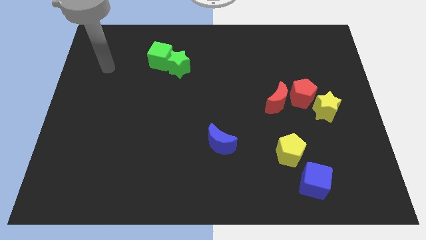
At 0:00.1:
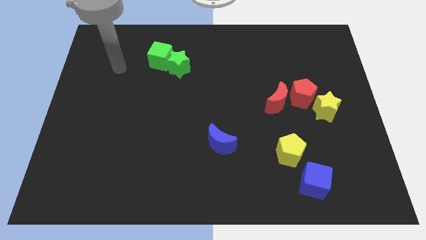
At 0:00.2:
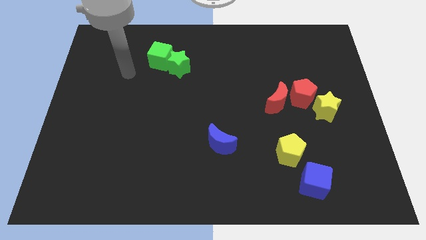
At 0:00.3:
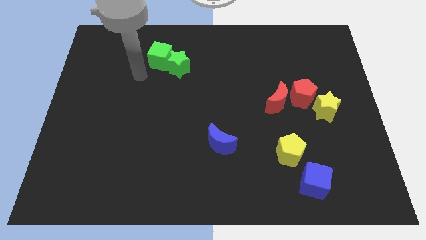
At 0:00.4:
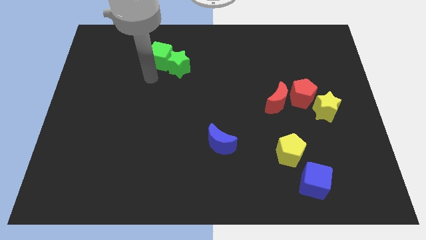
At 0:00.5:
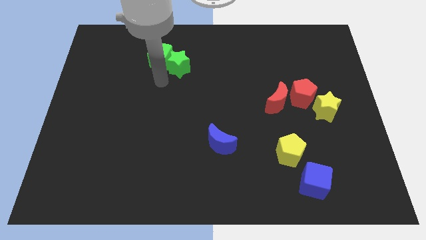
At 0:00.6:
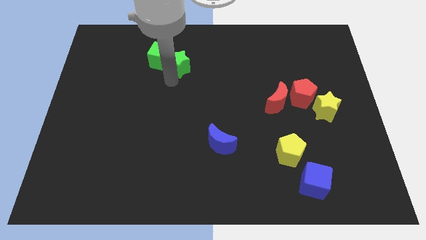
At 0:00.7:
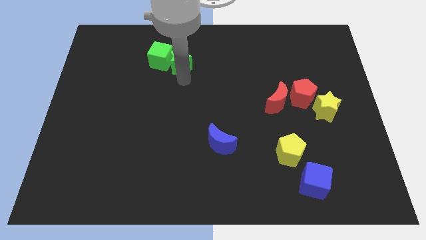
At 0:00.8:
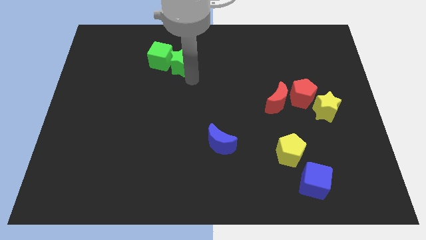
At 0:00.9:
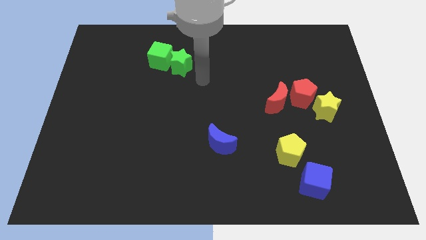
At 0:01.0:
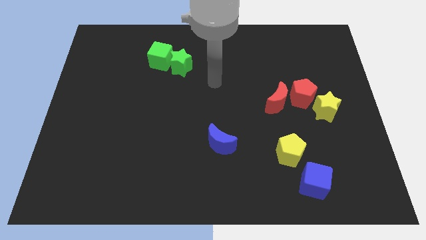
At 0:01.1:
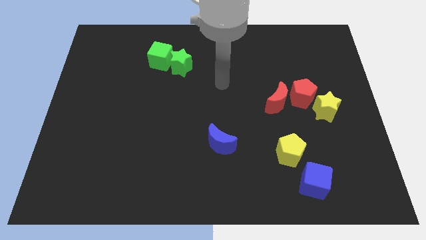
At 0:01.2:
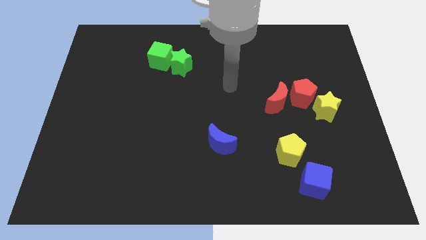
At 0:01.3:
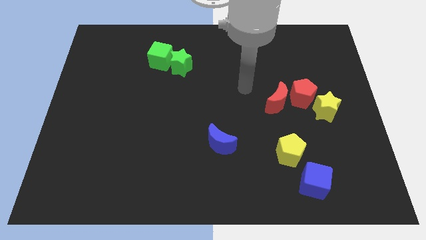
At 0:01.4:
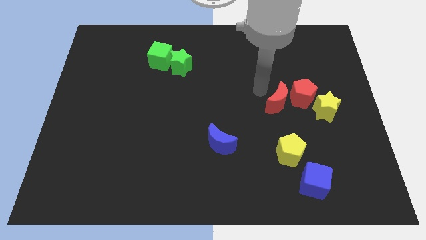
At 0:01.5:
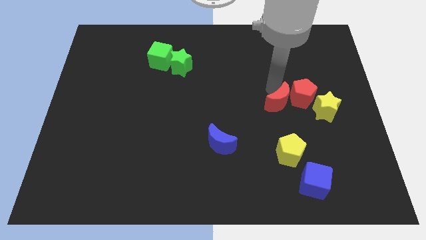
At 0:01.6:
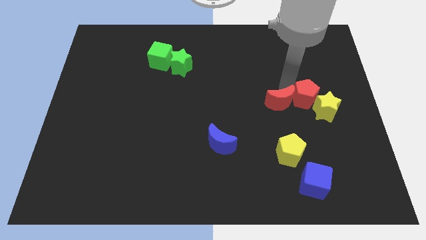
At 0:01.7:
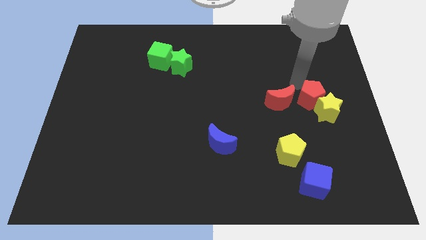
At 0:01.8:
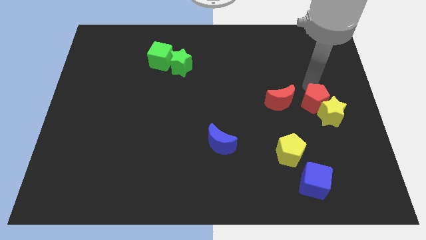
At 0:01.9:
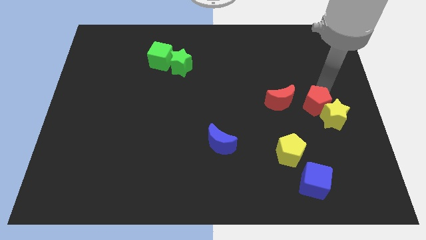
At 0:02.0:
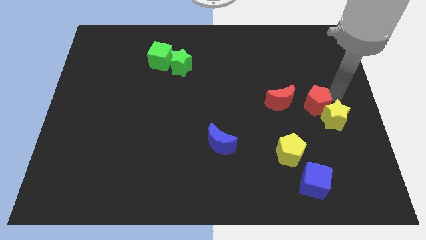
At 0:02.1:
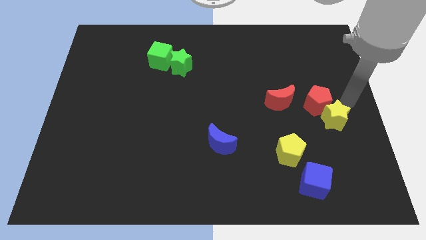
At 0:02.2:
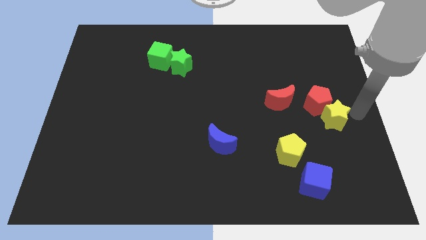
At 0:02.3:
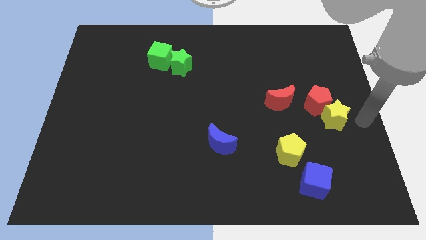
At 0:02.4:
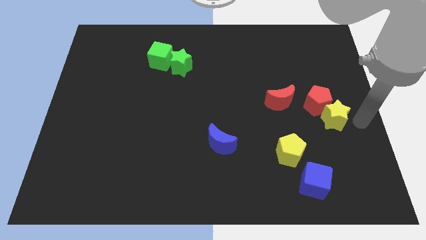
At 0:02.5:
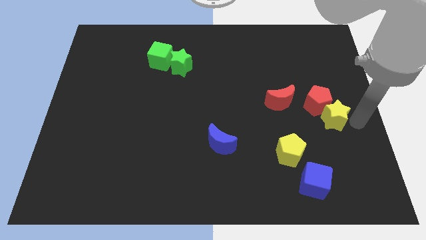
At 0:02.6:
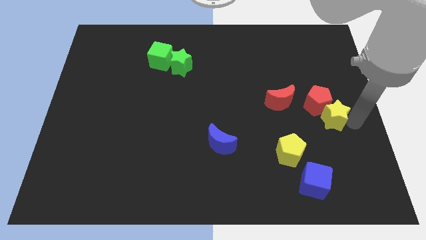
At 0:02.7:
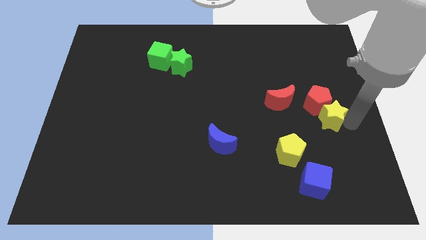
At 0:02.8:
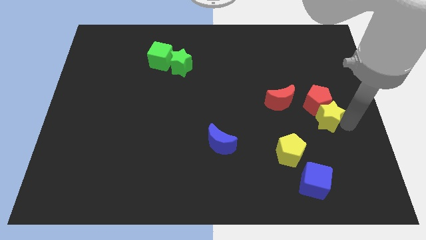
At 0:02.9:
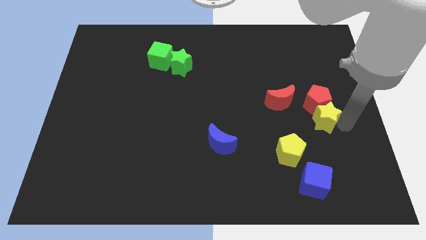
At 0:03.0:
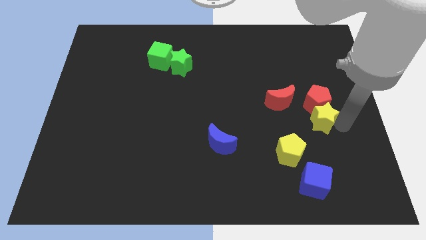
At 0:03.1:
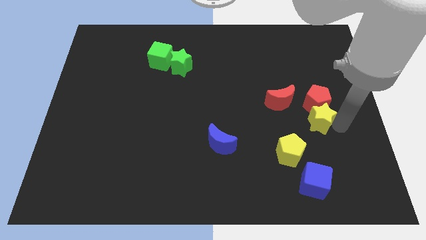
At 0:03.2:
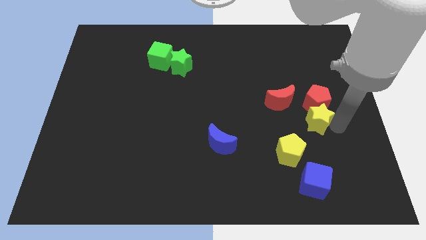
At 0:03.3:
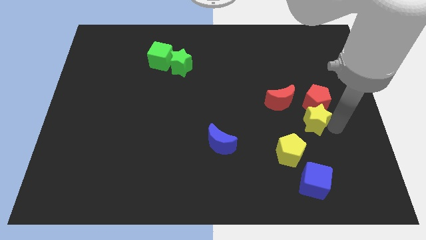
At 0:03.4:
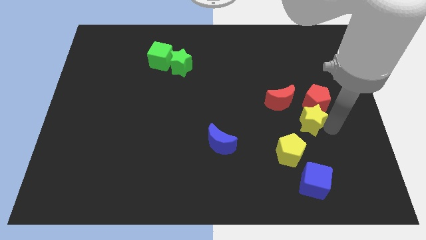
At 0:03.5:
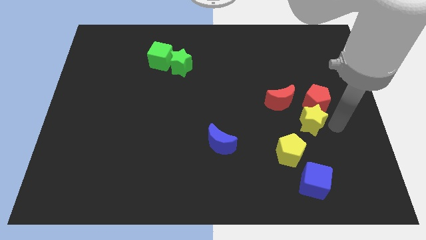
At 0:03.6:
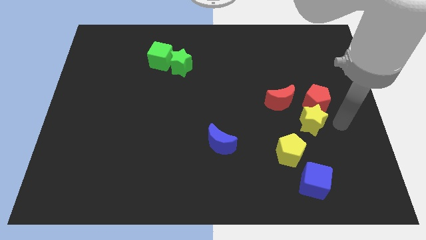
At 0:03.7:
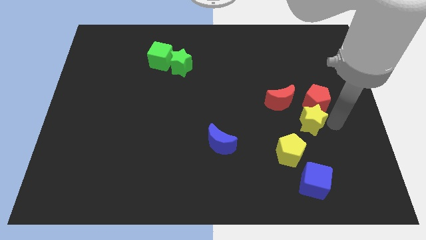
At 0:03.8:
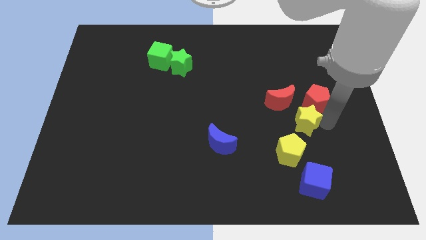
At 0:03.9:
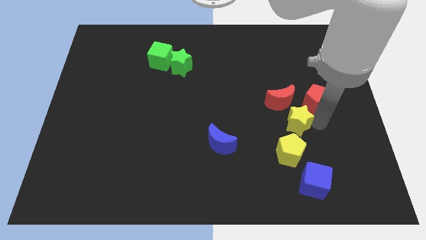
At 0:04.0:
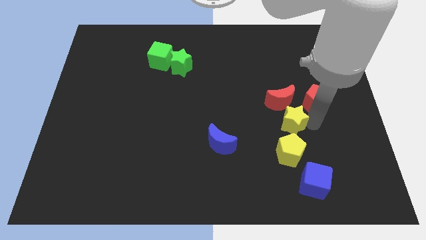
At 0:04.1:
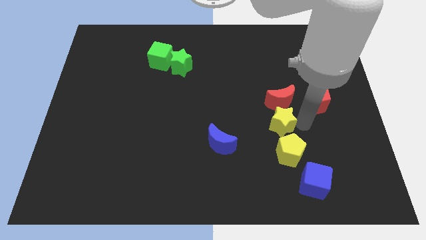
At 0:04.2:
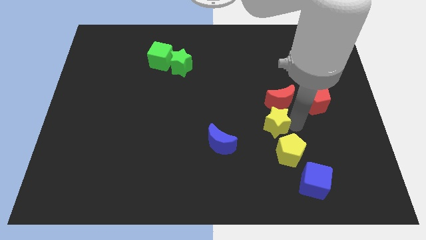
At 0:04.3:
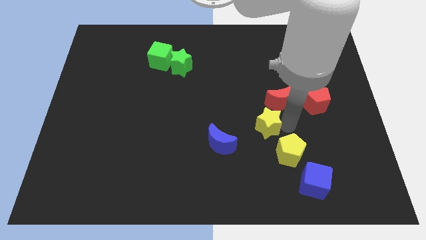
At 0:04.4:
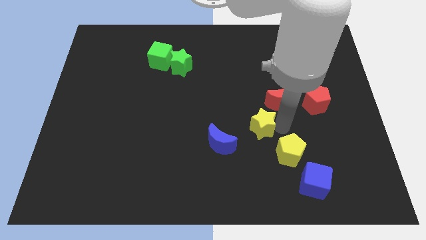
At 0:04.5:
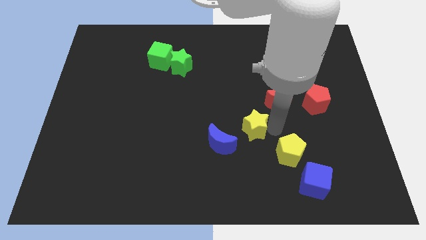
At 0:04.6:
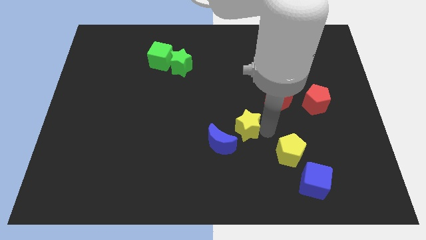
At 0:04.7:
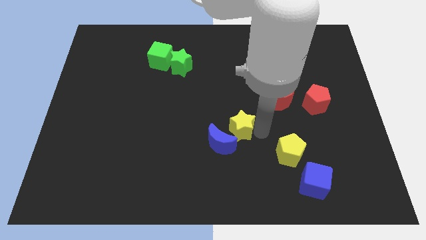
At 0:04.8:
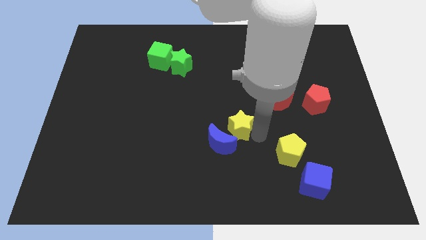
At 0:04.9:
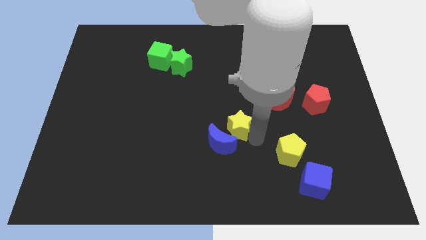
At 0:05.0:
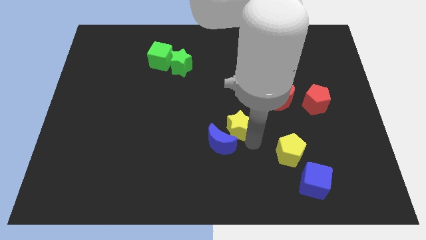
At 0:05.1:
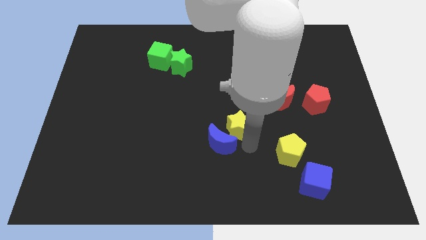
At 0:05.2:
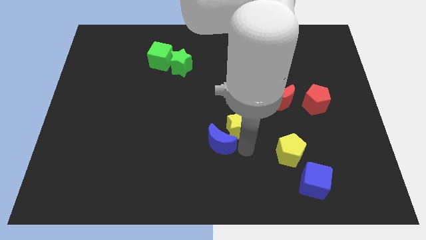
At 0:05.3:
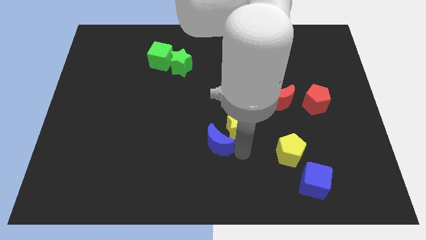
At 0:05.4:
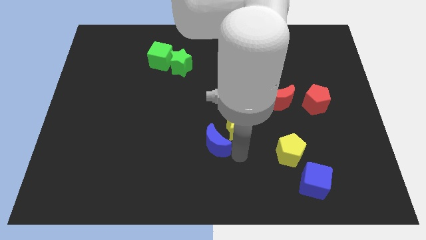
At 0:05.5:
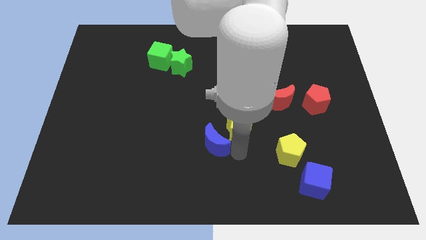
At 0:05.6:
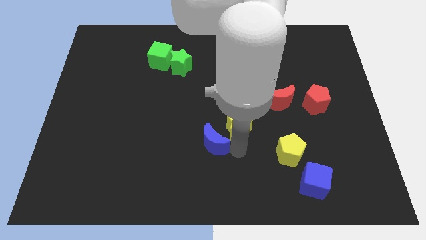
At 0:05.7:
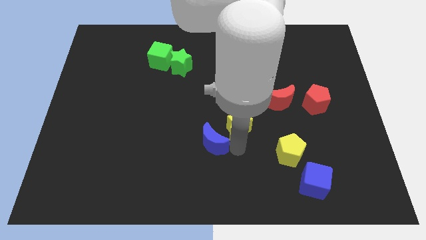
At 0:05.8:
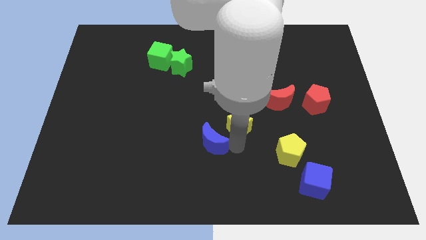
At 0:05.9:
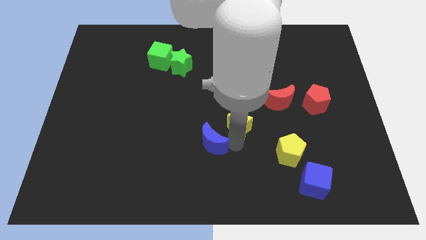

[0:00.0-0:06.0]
slide the yellow star to the left

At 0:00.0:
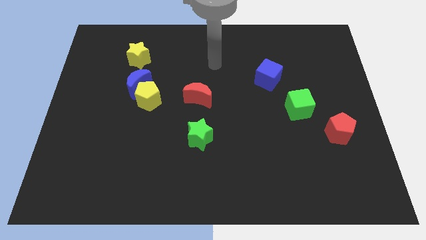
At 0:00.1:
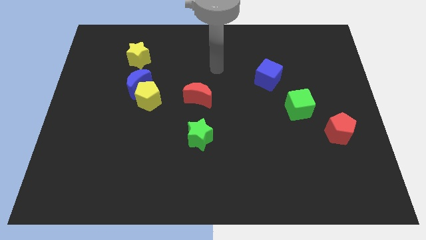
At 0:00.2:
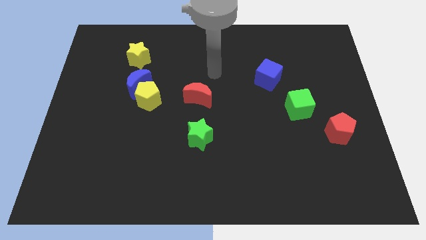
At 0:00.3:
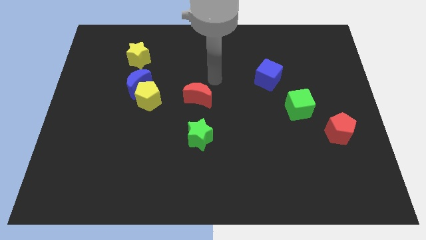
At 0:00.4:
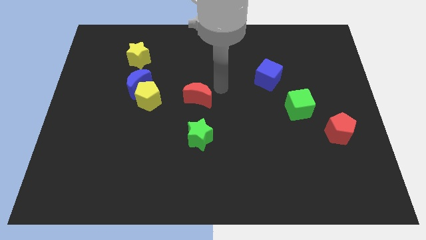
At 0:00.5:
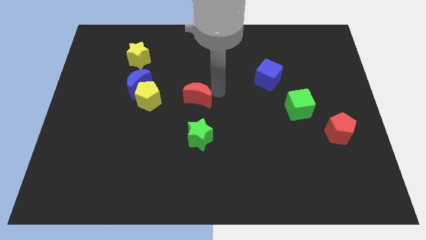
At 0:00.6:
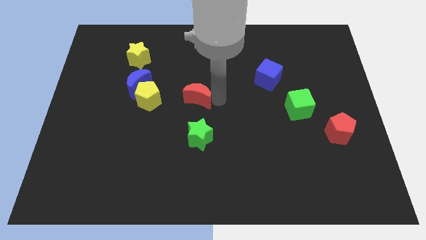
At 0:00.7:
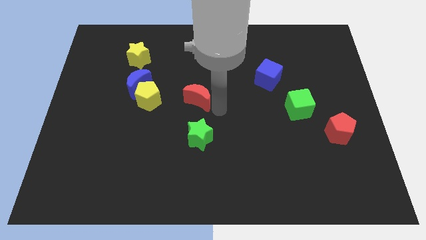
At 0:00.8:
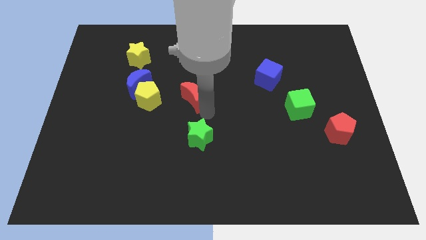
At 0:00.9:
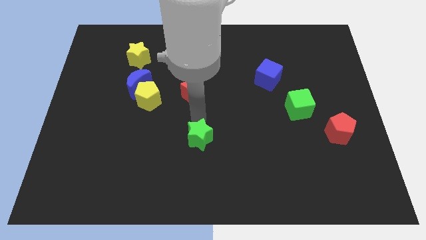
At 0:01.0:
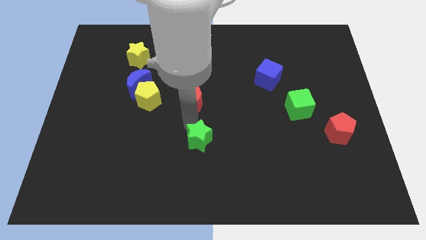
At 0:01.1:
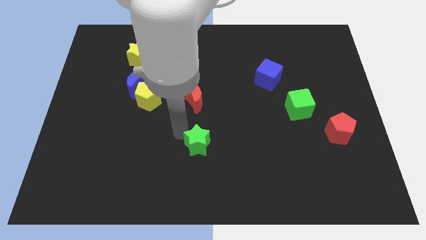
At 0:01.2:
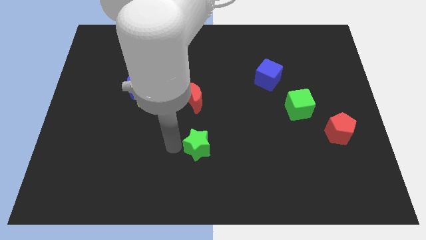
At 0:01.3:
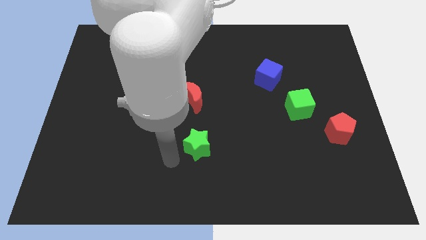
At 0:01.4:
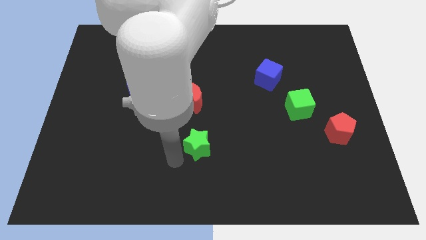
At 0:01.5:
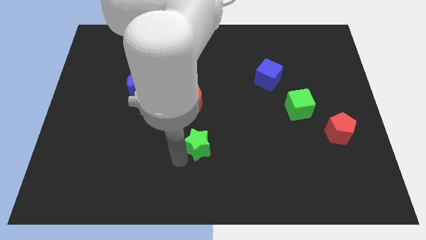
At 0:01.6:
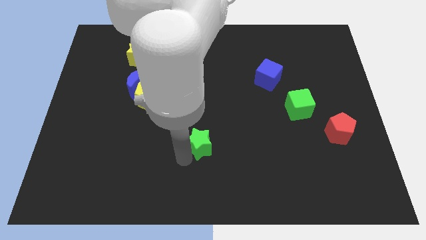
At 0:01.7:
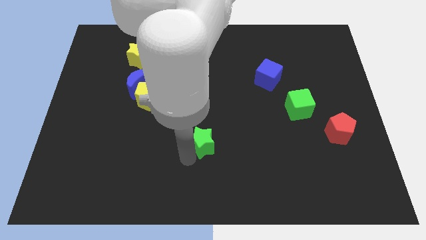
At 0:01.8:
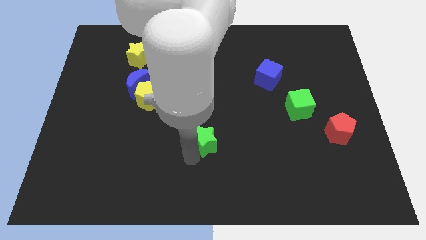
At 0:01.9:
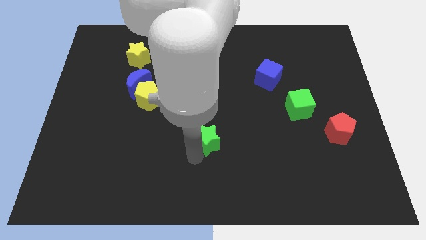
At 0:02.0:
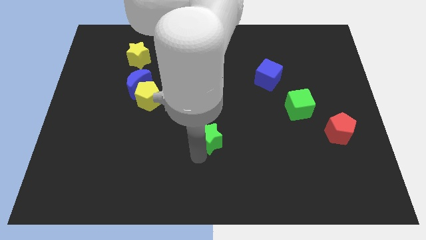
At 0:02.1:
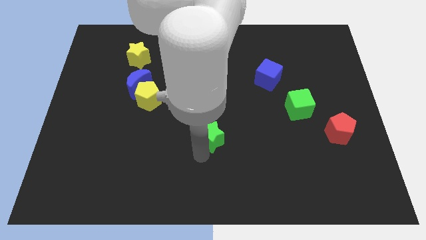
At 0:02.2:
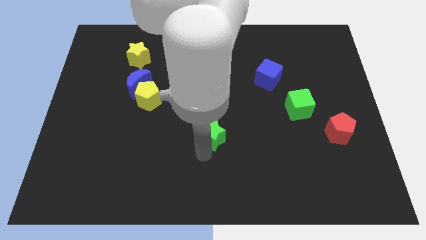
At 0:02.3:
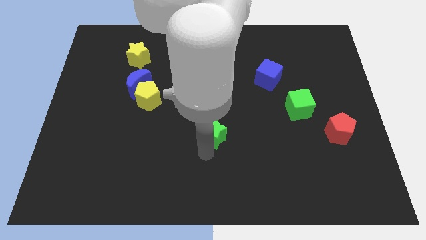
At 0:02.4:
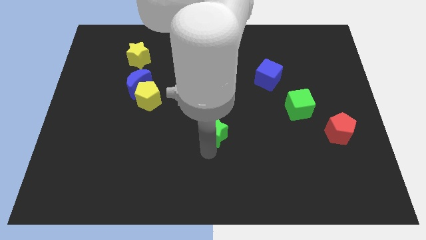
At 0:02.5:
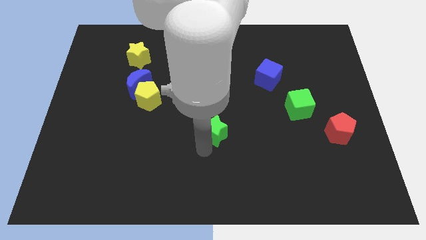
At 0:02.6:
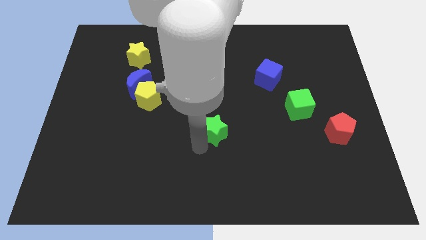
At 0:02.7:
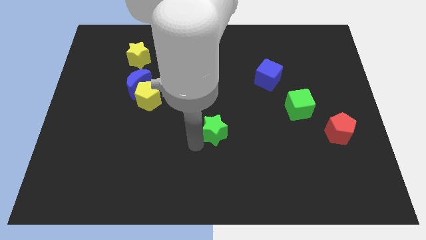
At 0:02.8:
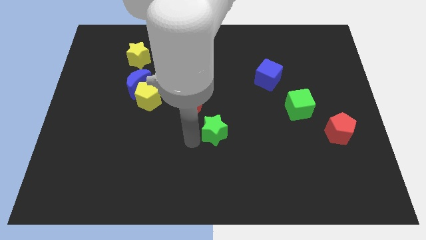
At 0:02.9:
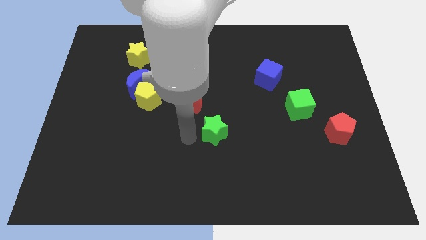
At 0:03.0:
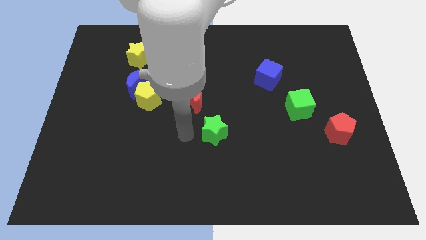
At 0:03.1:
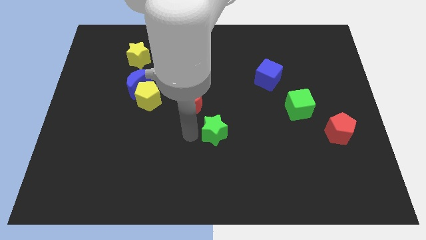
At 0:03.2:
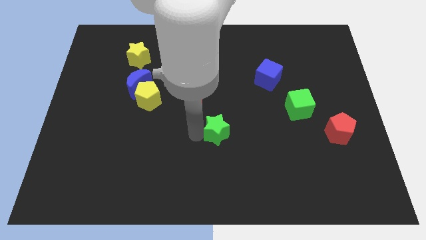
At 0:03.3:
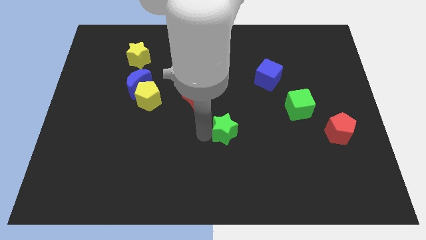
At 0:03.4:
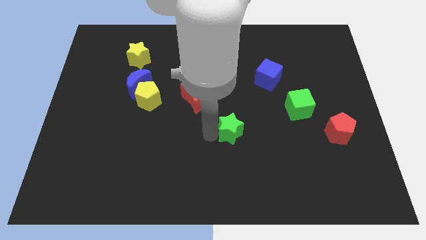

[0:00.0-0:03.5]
move the green star slightly right
